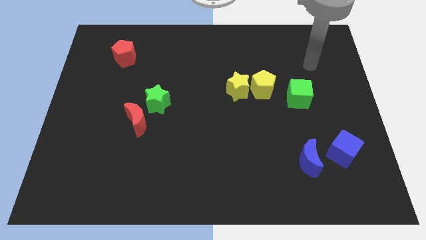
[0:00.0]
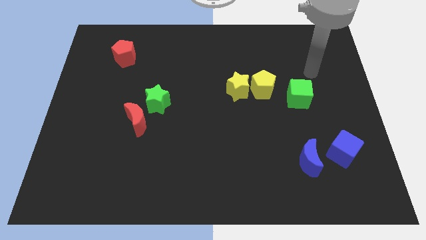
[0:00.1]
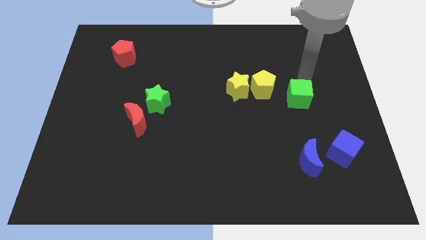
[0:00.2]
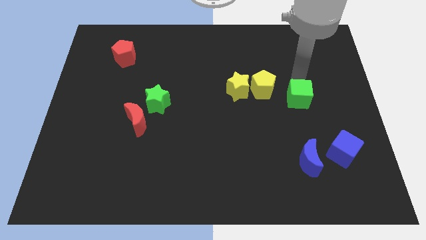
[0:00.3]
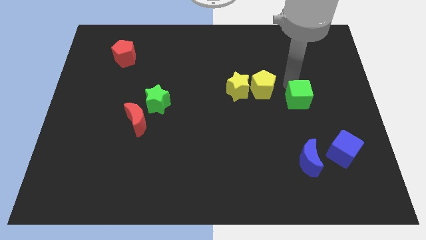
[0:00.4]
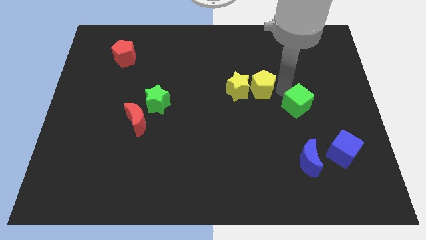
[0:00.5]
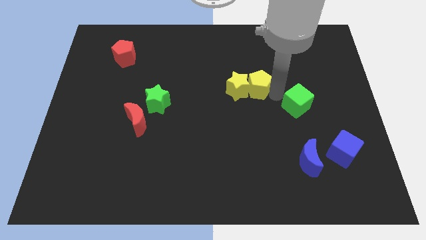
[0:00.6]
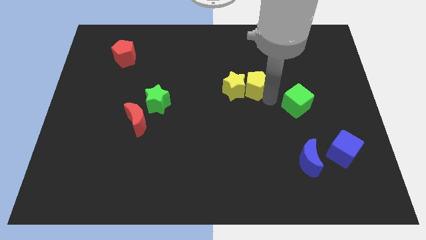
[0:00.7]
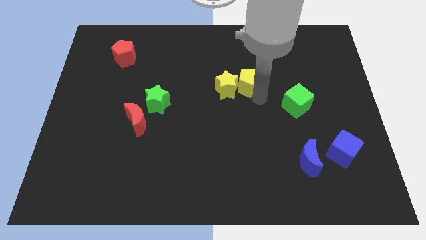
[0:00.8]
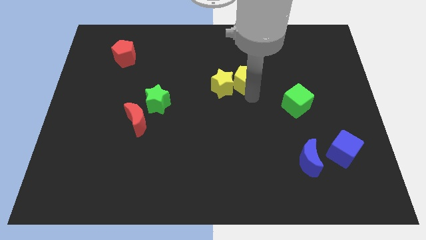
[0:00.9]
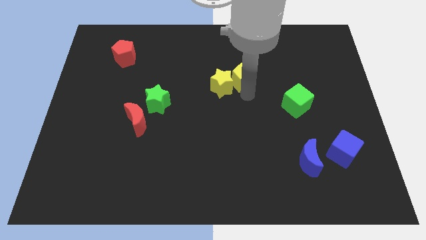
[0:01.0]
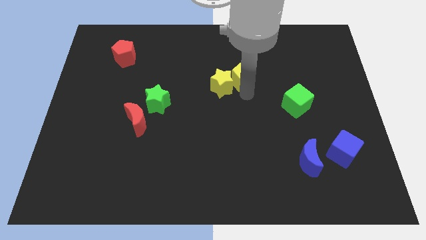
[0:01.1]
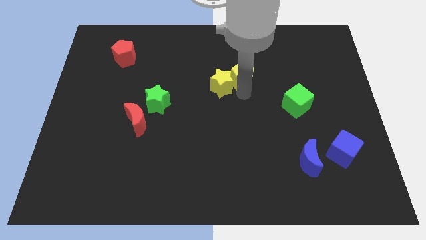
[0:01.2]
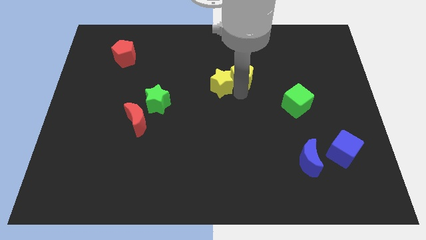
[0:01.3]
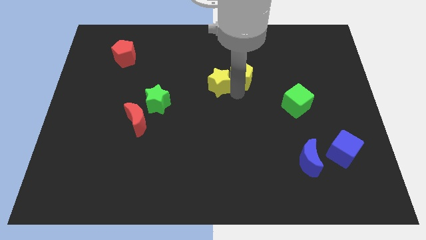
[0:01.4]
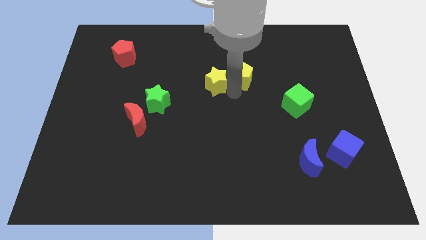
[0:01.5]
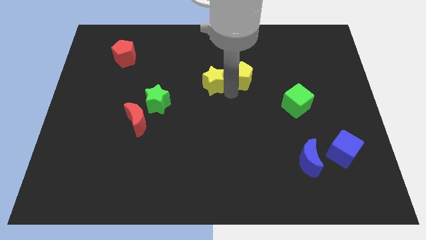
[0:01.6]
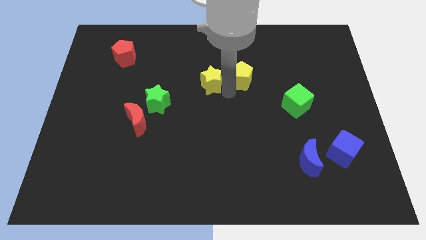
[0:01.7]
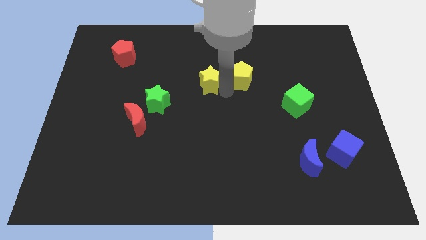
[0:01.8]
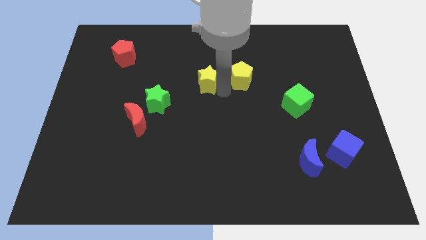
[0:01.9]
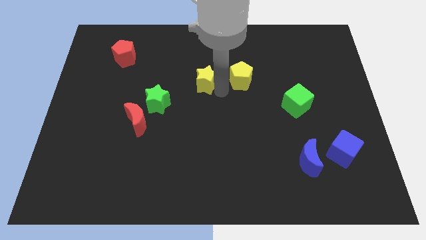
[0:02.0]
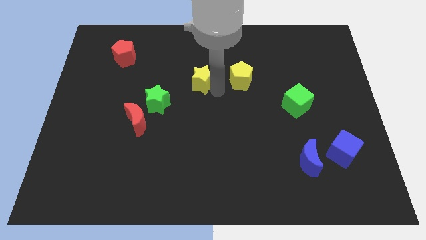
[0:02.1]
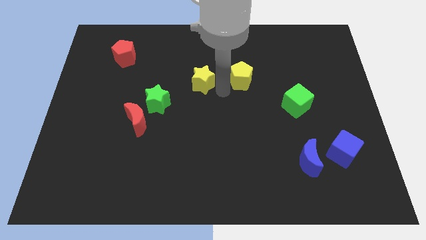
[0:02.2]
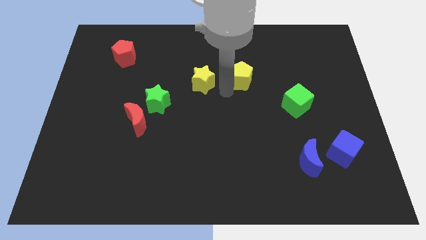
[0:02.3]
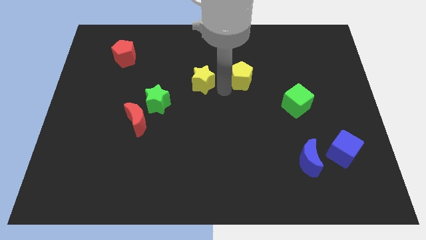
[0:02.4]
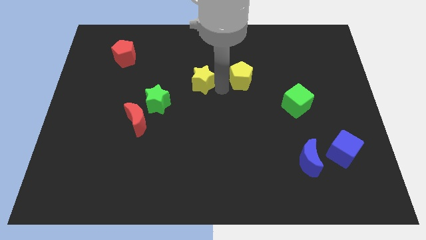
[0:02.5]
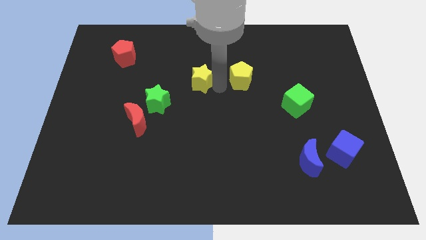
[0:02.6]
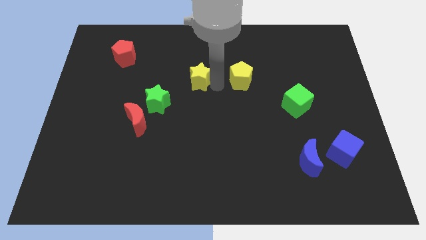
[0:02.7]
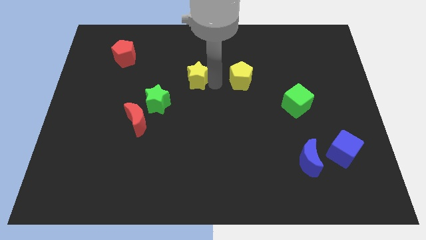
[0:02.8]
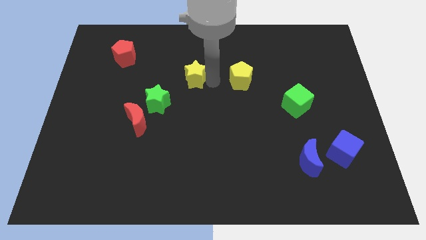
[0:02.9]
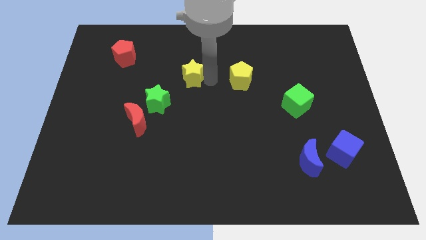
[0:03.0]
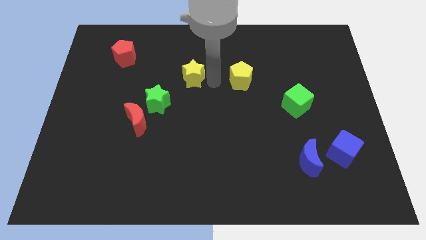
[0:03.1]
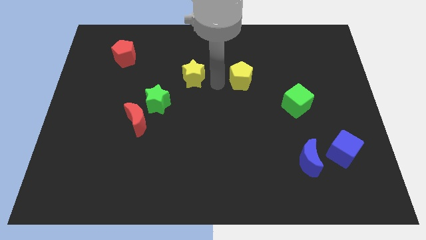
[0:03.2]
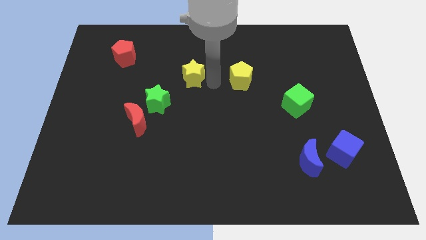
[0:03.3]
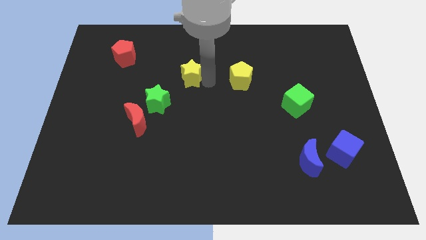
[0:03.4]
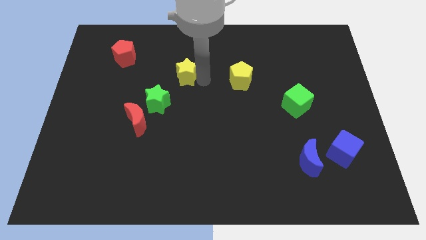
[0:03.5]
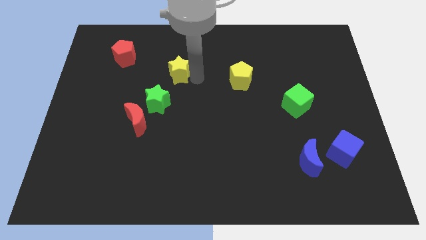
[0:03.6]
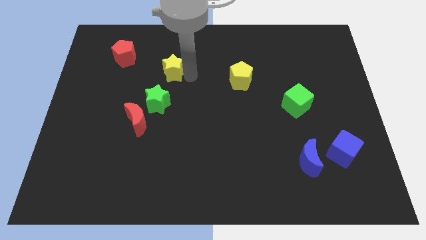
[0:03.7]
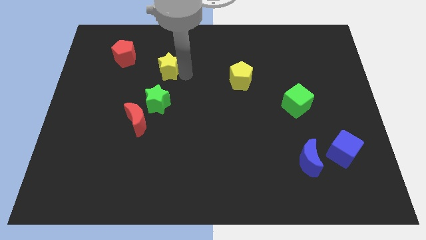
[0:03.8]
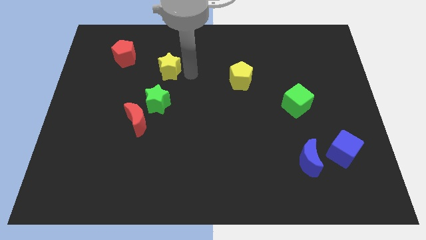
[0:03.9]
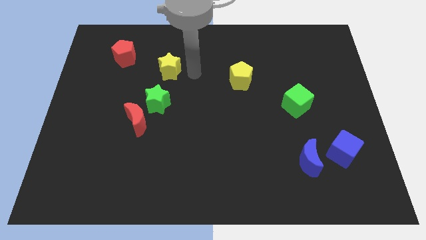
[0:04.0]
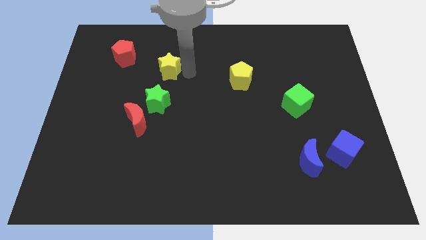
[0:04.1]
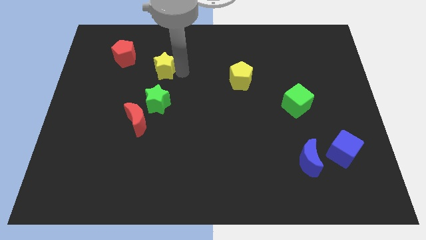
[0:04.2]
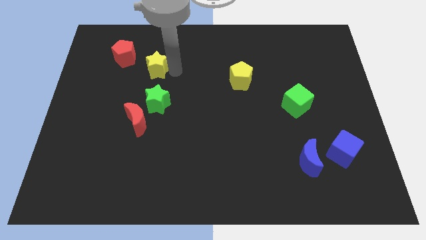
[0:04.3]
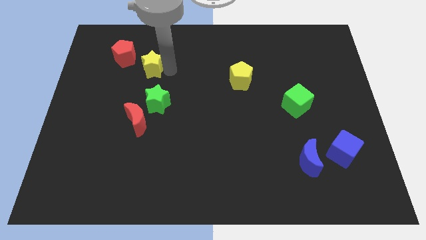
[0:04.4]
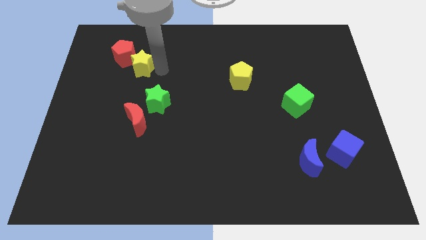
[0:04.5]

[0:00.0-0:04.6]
push the yellow star next to the red pentagon

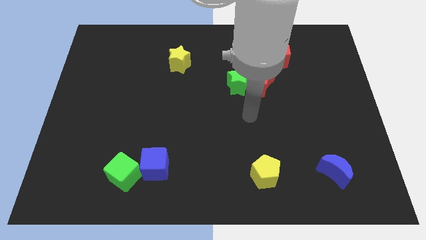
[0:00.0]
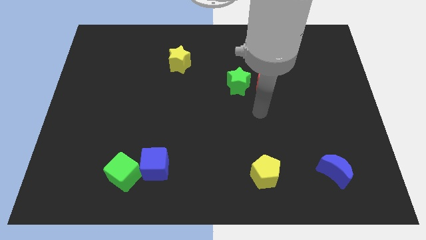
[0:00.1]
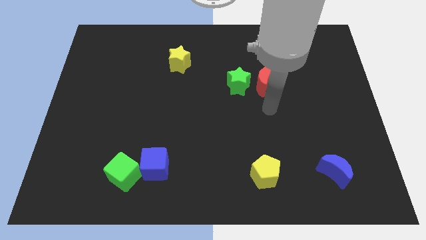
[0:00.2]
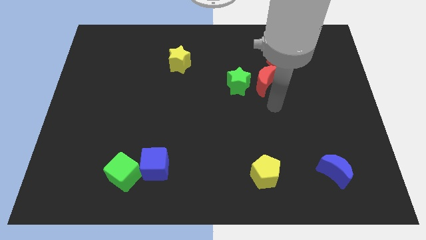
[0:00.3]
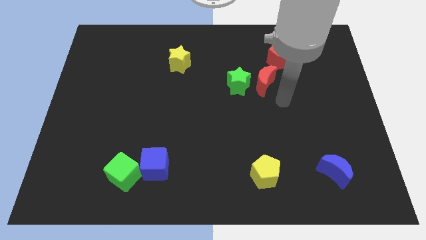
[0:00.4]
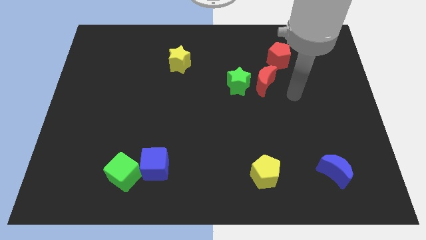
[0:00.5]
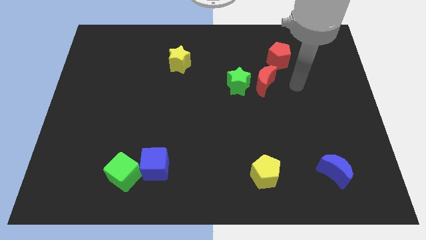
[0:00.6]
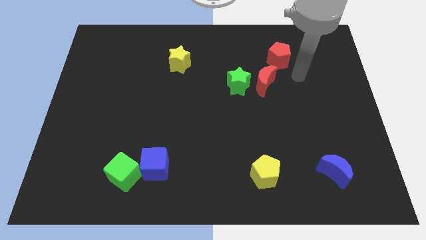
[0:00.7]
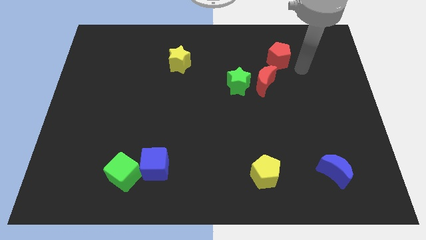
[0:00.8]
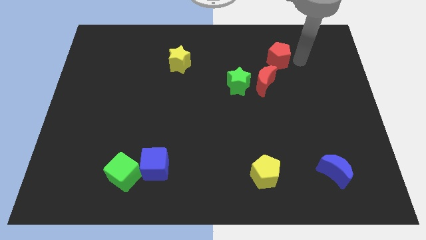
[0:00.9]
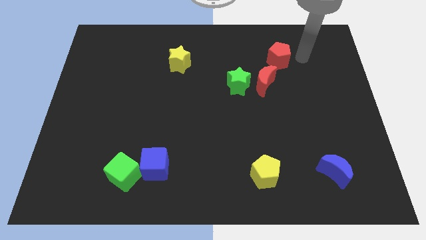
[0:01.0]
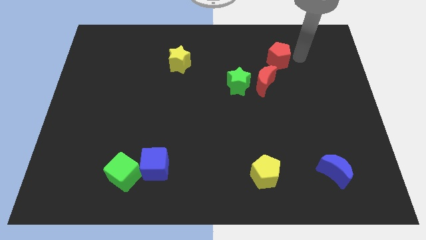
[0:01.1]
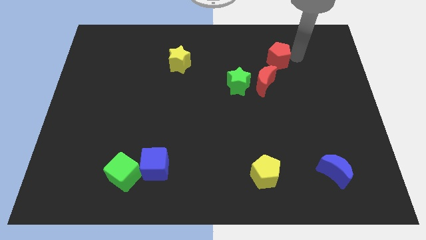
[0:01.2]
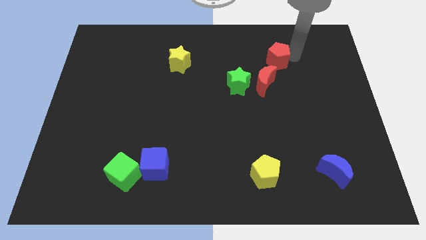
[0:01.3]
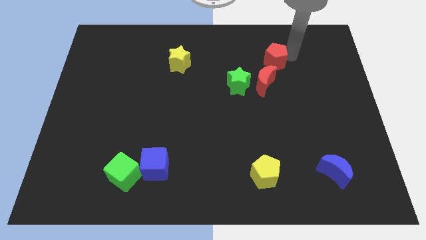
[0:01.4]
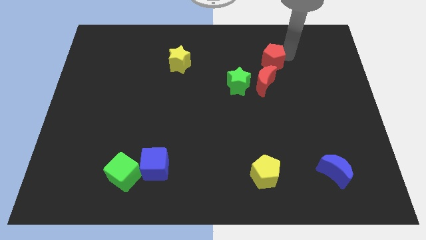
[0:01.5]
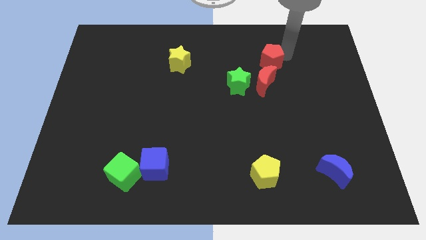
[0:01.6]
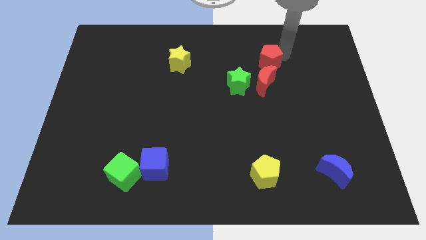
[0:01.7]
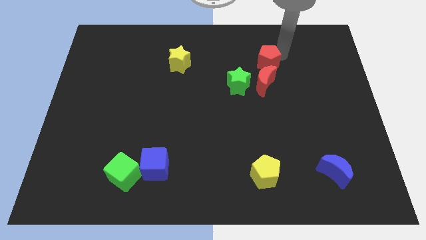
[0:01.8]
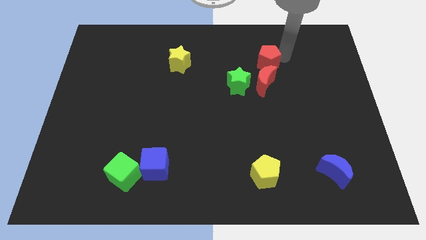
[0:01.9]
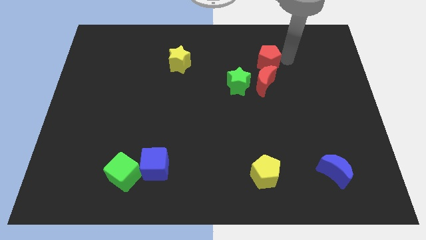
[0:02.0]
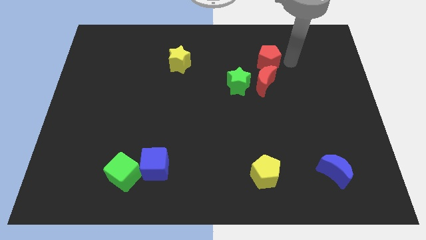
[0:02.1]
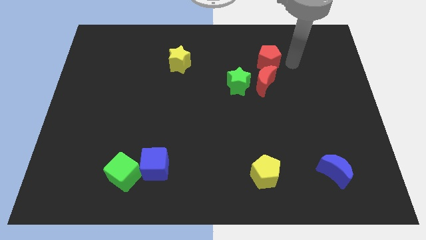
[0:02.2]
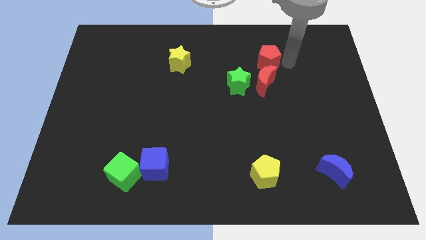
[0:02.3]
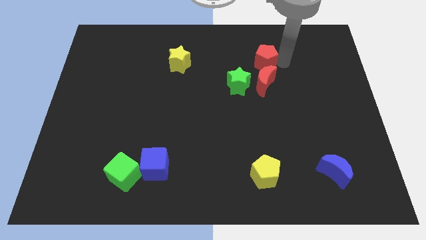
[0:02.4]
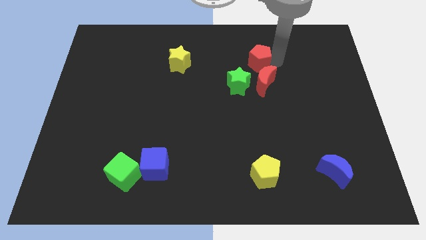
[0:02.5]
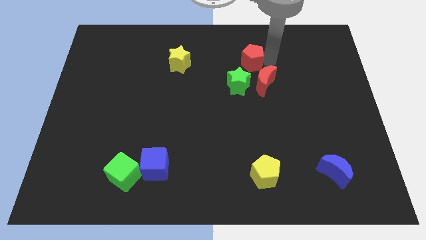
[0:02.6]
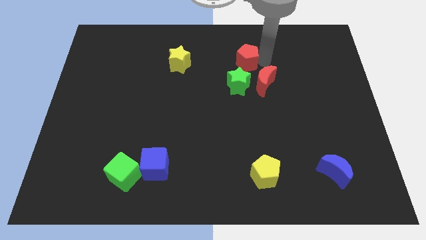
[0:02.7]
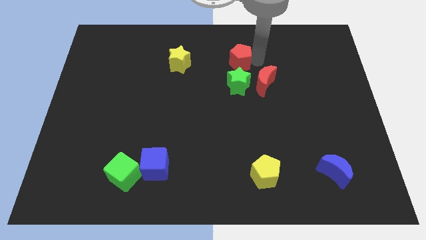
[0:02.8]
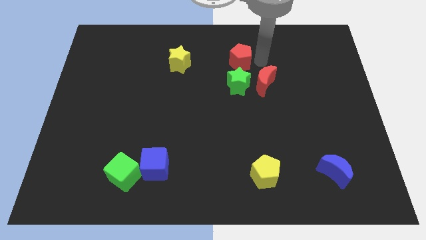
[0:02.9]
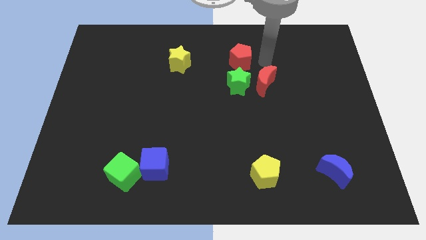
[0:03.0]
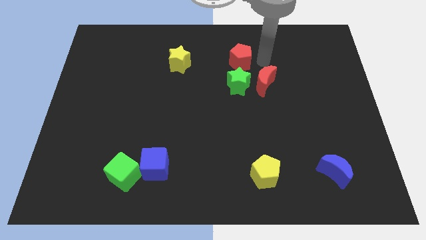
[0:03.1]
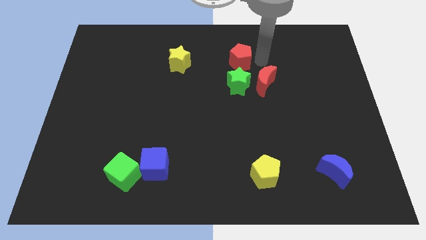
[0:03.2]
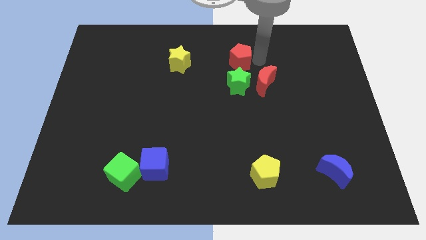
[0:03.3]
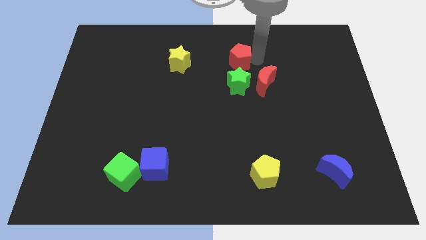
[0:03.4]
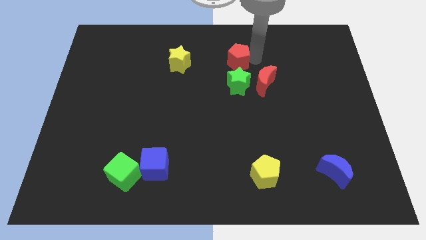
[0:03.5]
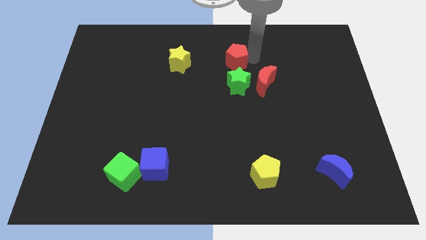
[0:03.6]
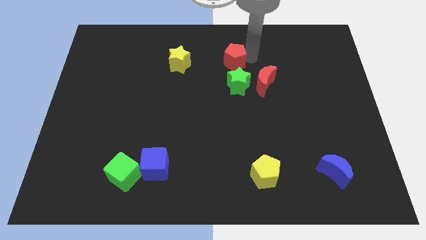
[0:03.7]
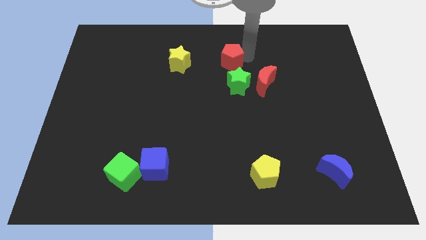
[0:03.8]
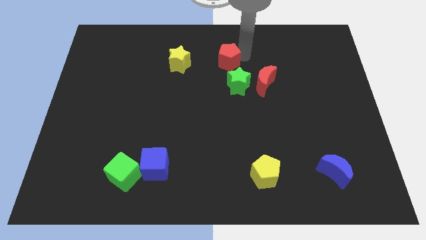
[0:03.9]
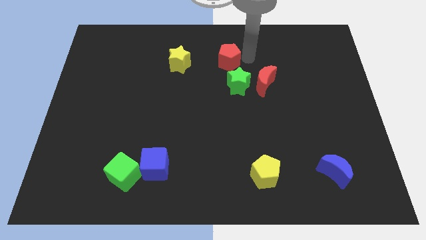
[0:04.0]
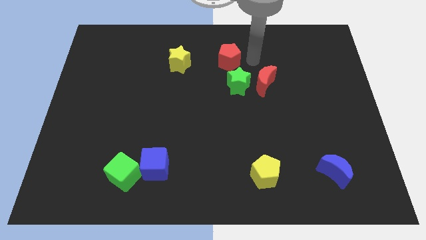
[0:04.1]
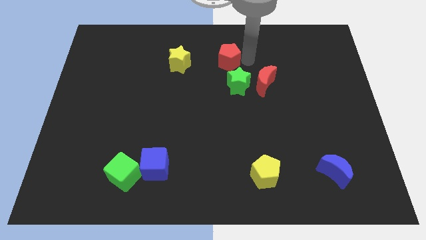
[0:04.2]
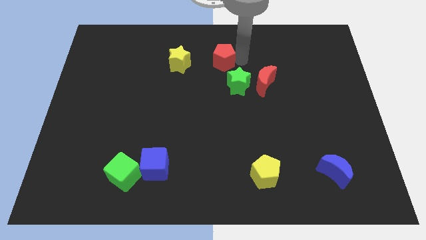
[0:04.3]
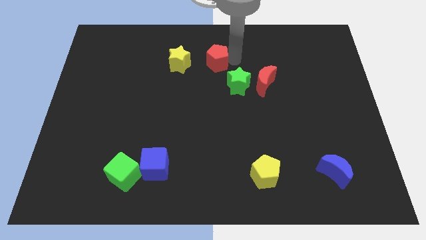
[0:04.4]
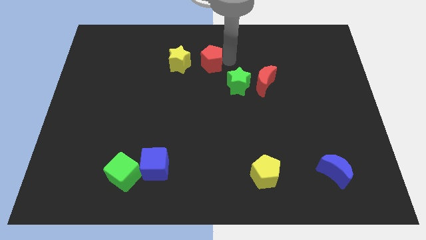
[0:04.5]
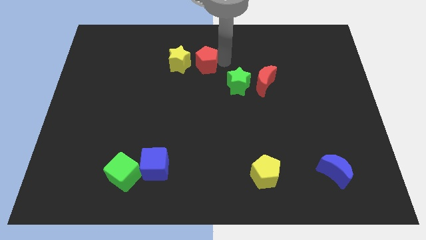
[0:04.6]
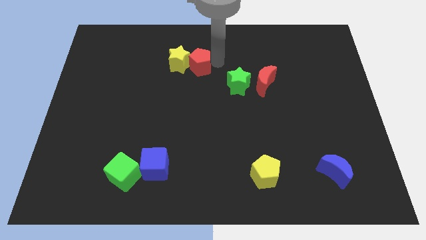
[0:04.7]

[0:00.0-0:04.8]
slide the red pentagon towards the yellow star
